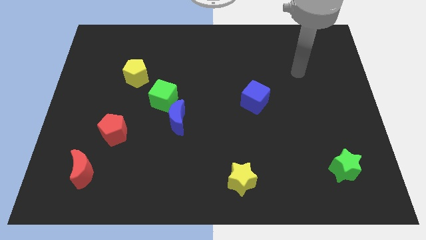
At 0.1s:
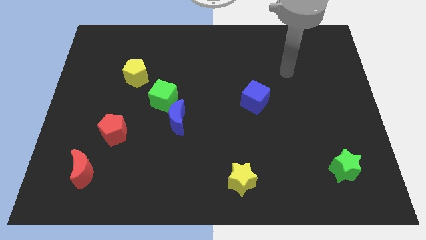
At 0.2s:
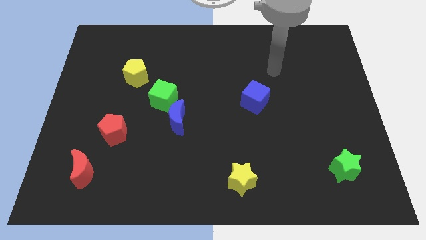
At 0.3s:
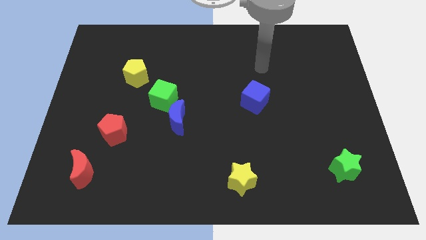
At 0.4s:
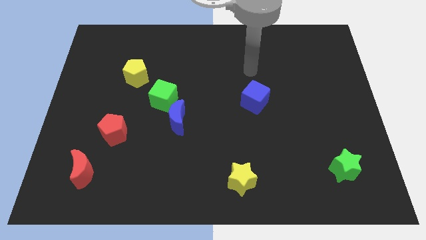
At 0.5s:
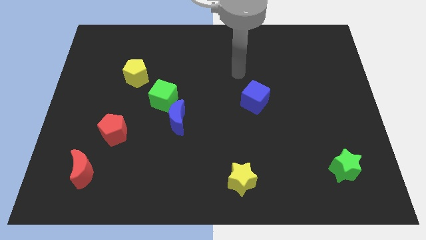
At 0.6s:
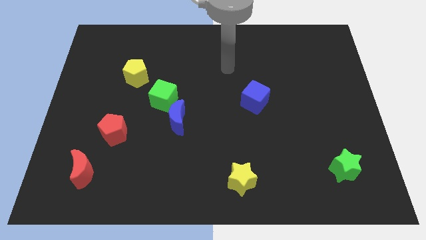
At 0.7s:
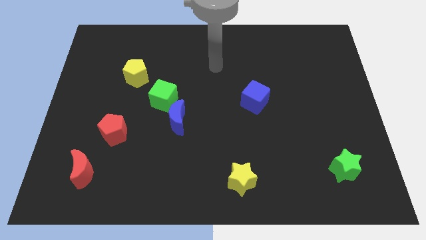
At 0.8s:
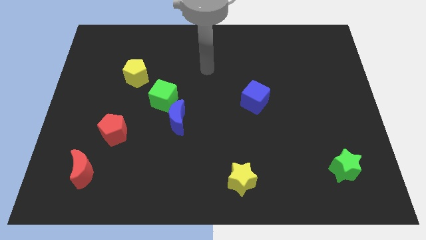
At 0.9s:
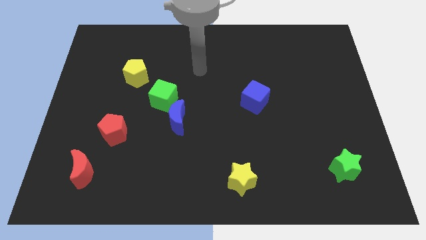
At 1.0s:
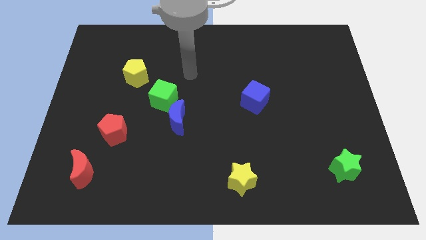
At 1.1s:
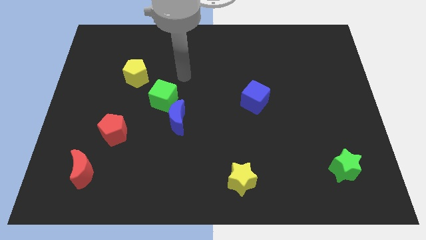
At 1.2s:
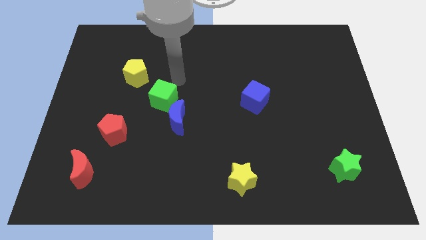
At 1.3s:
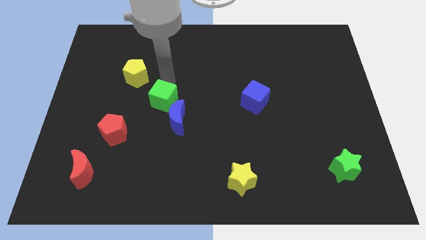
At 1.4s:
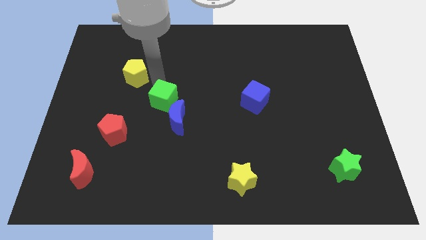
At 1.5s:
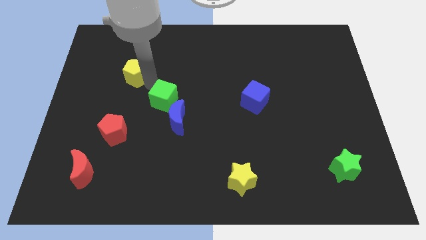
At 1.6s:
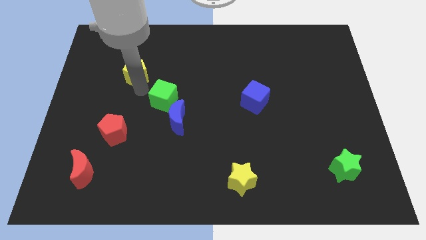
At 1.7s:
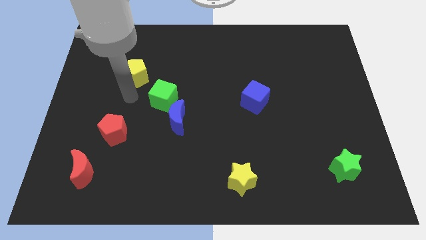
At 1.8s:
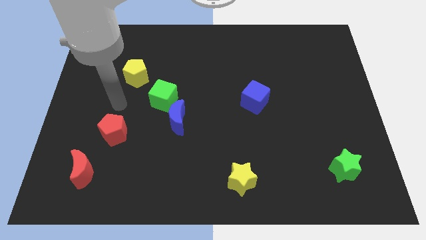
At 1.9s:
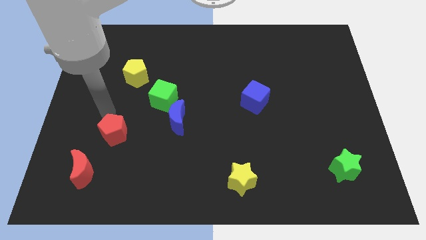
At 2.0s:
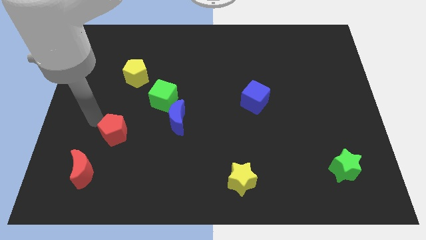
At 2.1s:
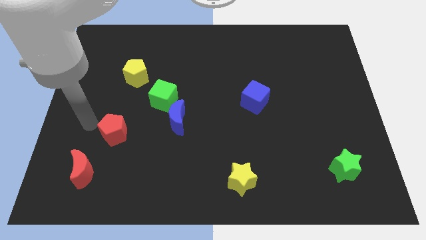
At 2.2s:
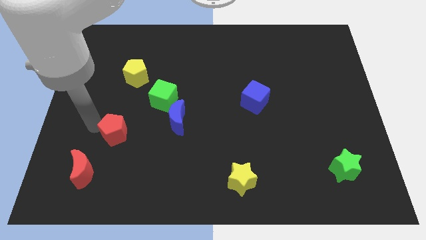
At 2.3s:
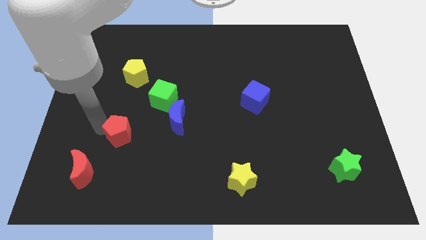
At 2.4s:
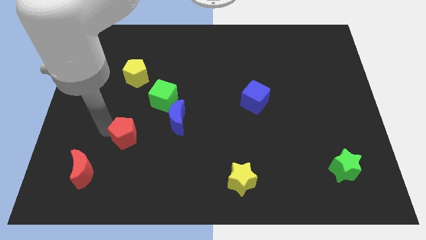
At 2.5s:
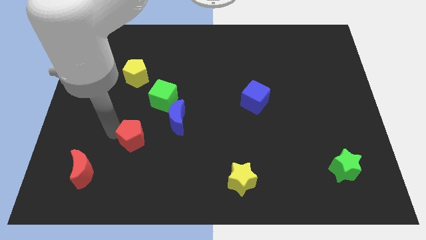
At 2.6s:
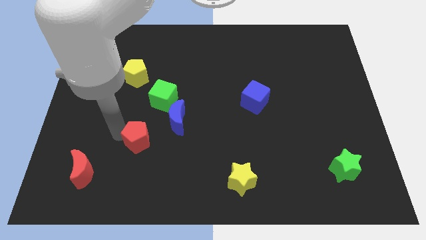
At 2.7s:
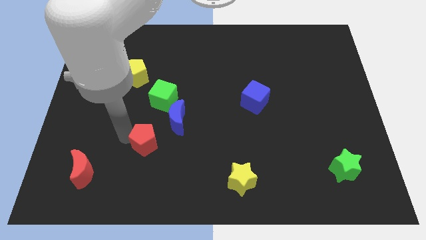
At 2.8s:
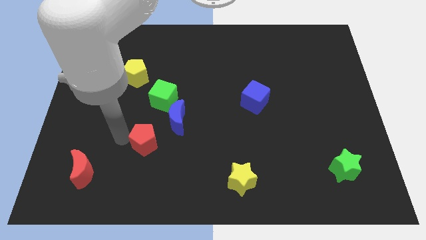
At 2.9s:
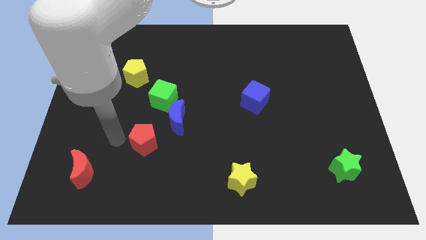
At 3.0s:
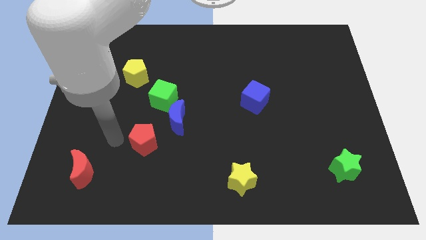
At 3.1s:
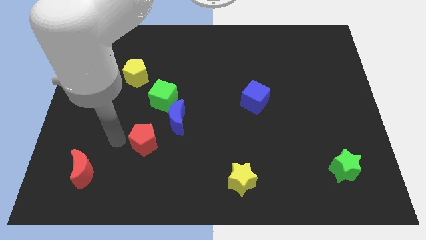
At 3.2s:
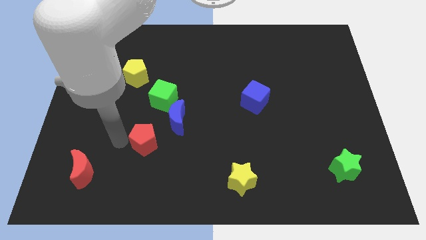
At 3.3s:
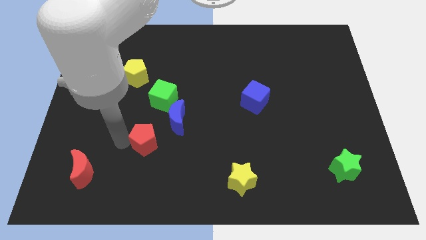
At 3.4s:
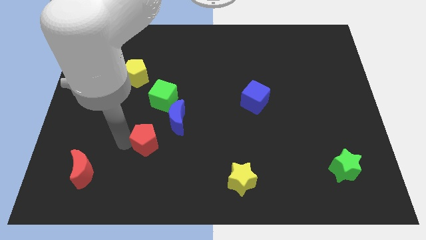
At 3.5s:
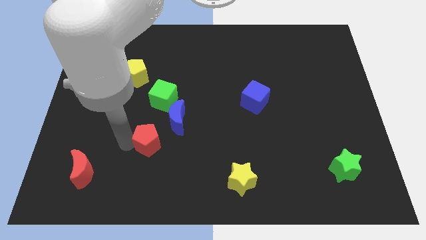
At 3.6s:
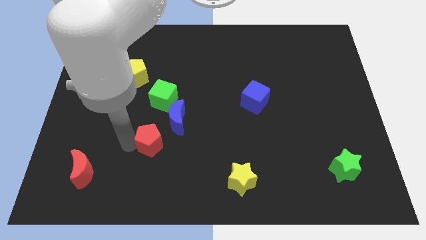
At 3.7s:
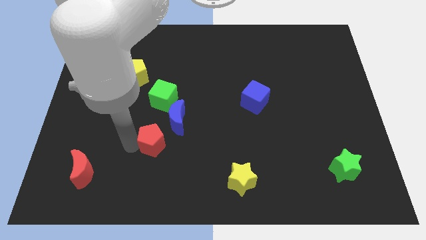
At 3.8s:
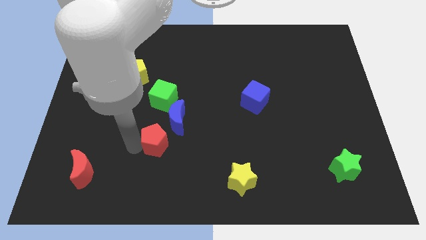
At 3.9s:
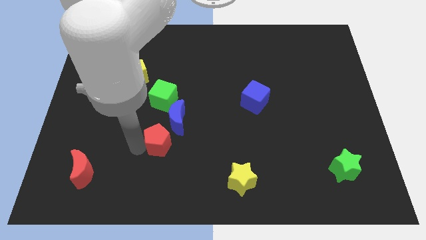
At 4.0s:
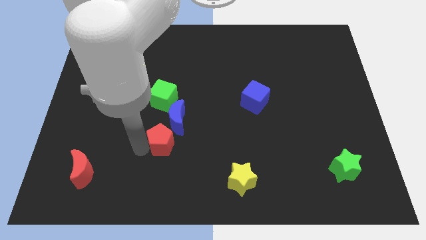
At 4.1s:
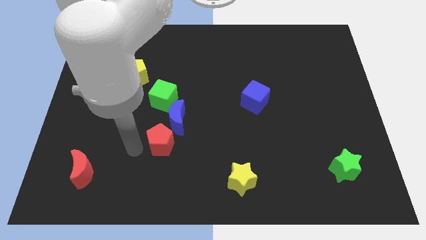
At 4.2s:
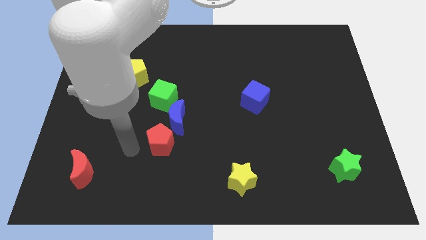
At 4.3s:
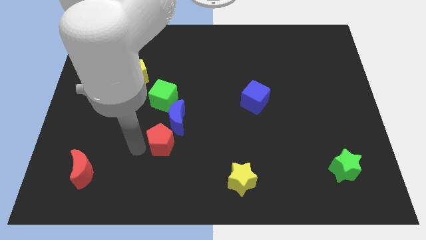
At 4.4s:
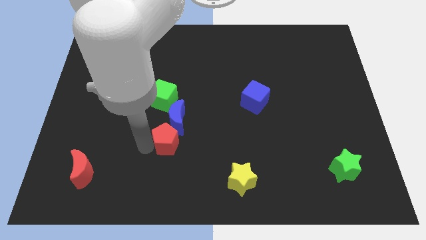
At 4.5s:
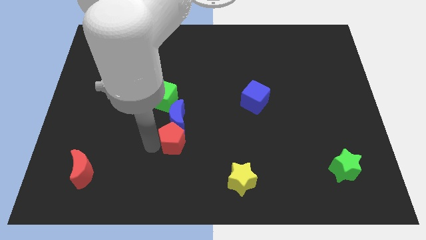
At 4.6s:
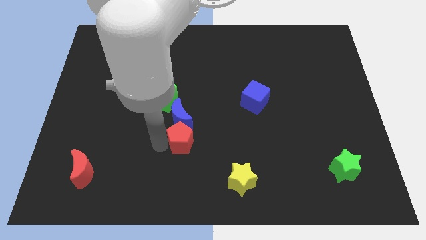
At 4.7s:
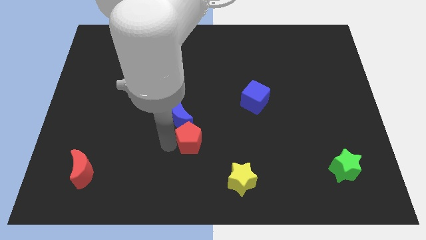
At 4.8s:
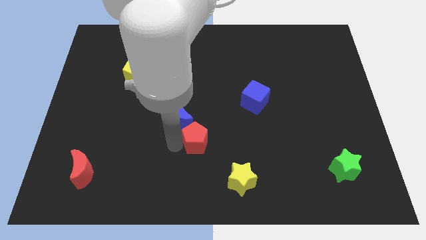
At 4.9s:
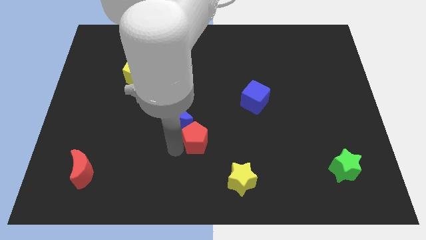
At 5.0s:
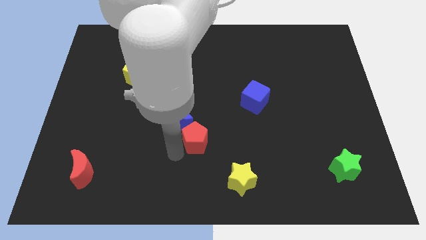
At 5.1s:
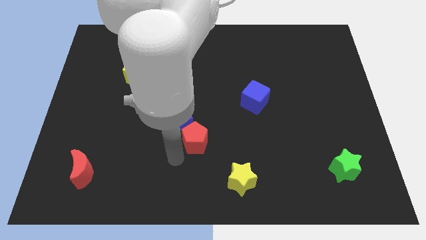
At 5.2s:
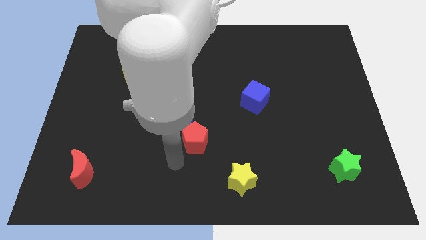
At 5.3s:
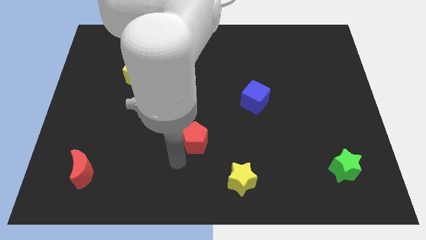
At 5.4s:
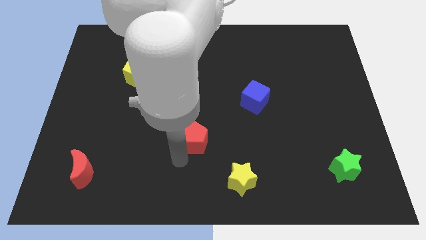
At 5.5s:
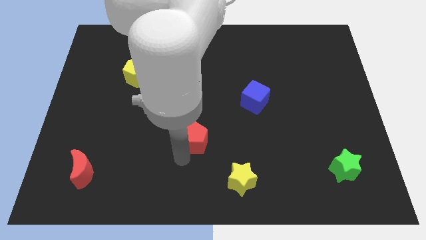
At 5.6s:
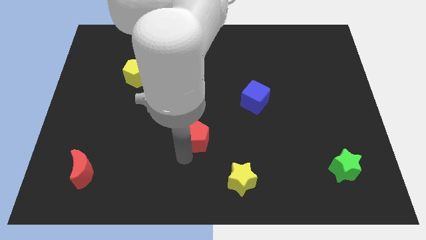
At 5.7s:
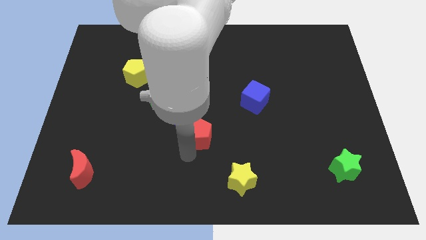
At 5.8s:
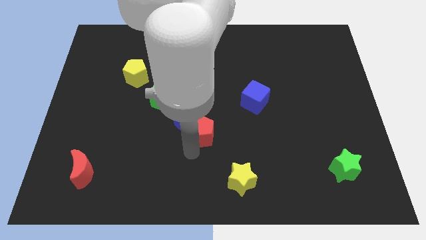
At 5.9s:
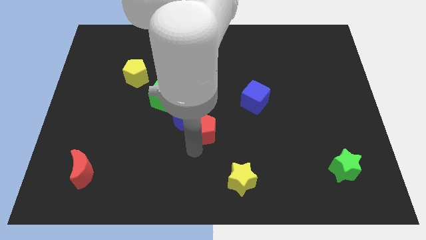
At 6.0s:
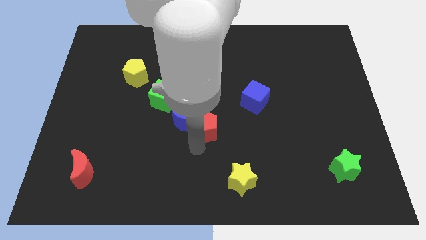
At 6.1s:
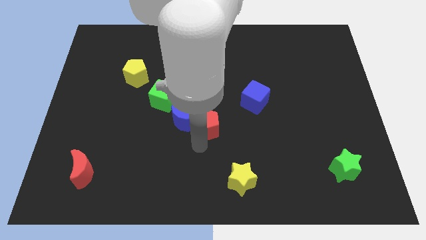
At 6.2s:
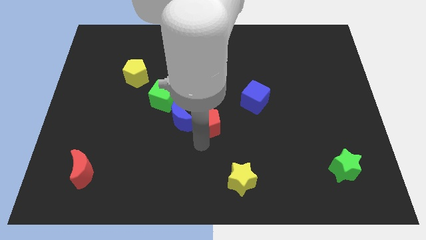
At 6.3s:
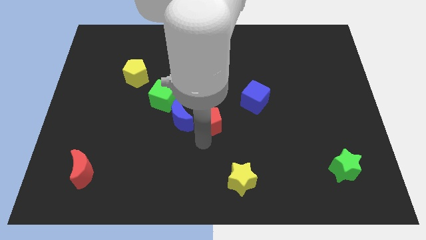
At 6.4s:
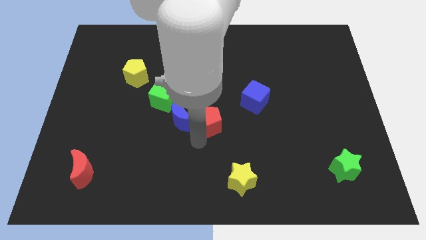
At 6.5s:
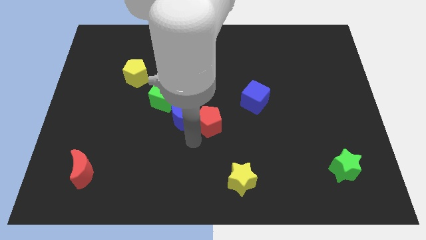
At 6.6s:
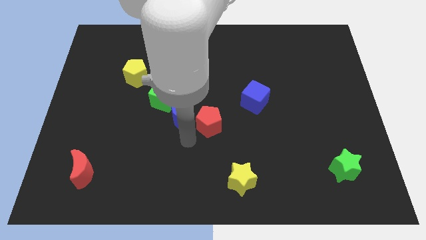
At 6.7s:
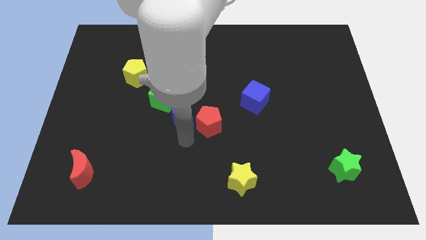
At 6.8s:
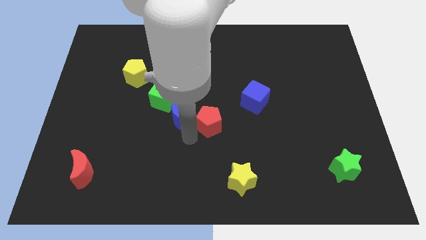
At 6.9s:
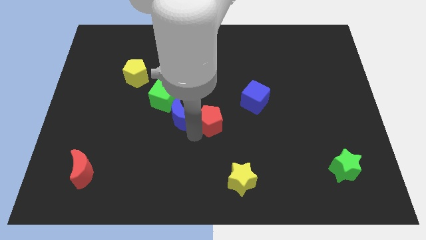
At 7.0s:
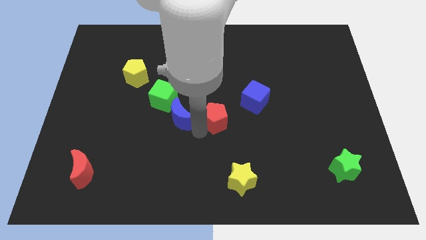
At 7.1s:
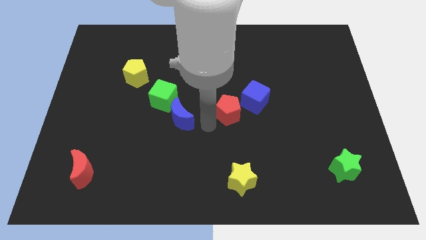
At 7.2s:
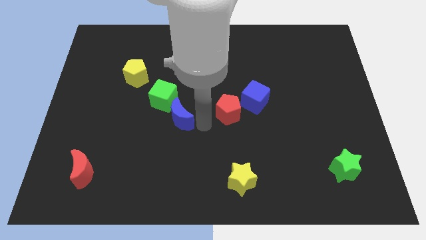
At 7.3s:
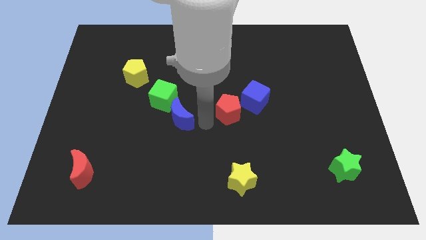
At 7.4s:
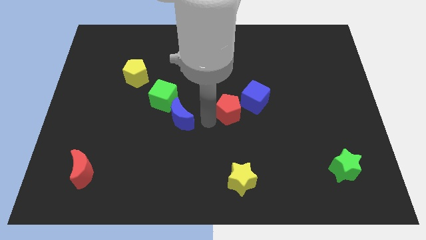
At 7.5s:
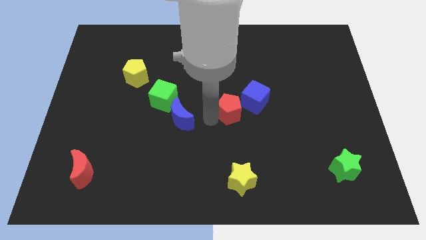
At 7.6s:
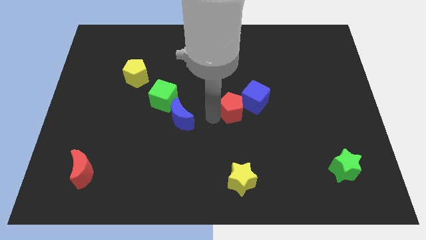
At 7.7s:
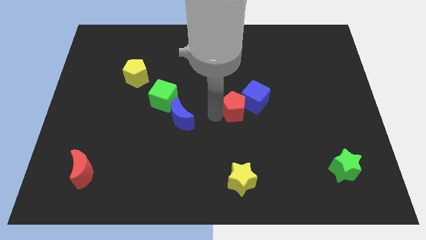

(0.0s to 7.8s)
slide the red pentagon towards the blue cube
